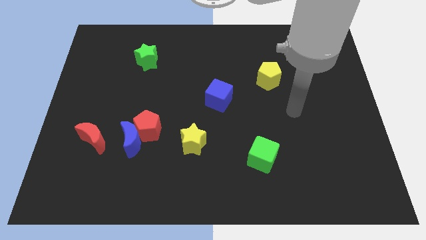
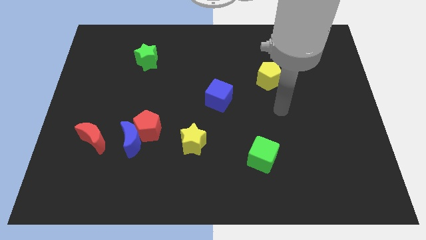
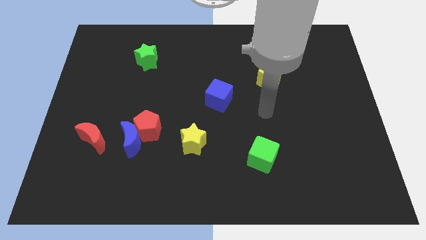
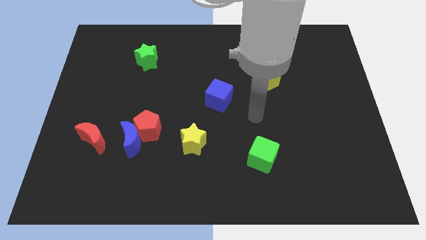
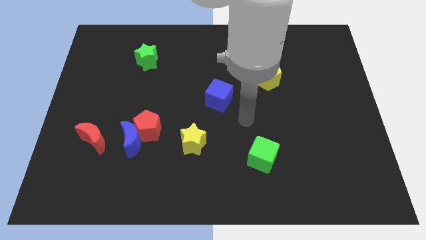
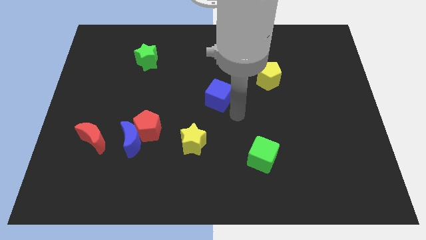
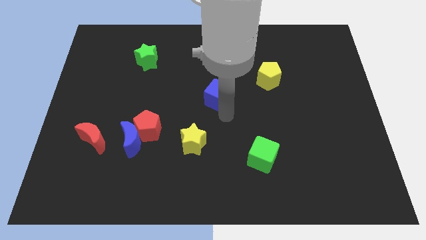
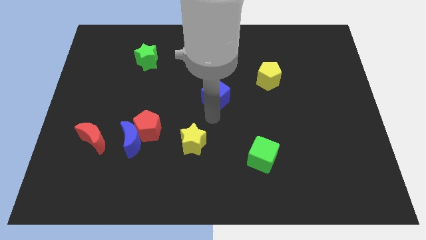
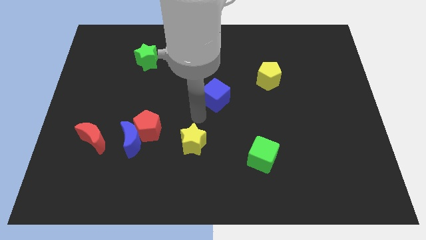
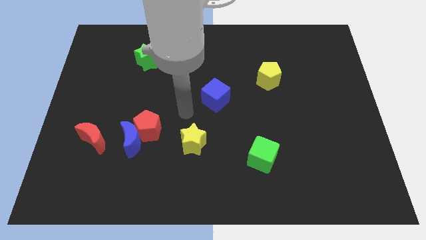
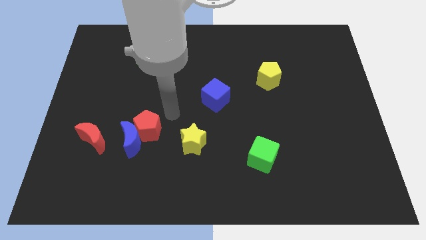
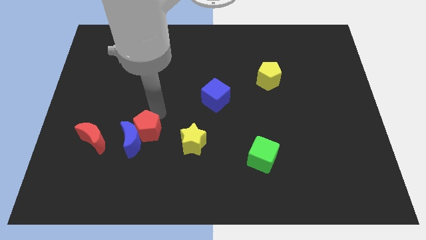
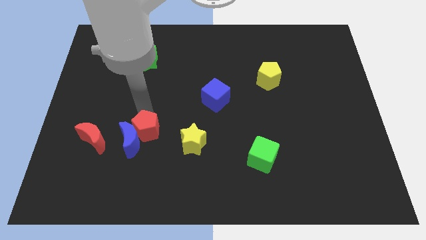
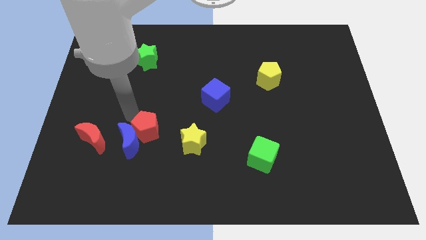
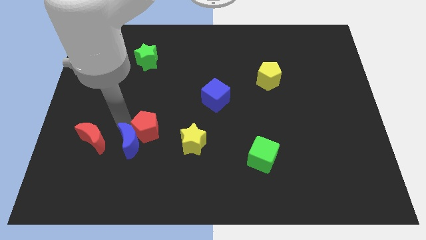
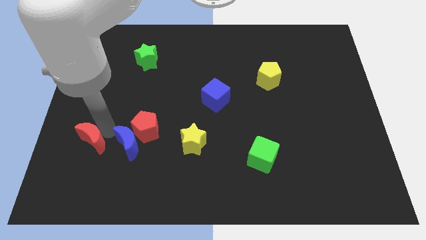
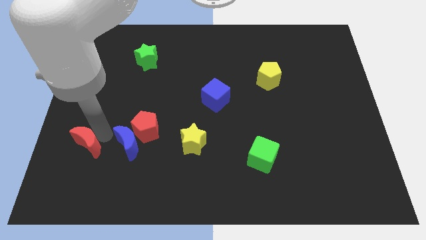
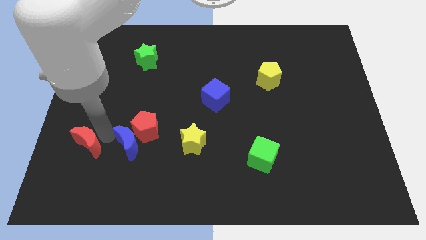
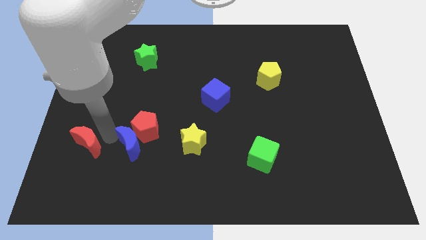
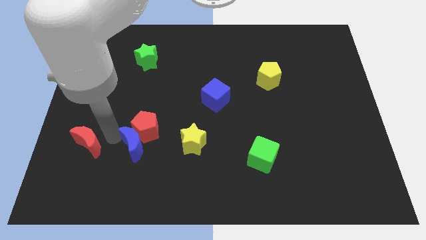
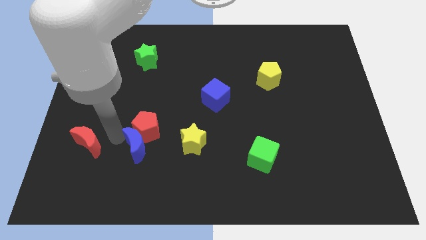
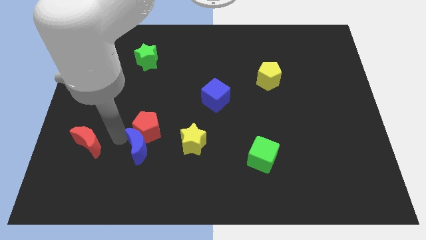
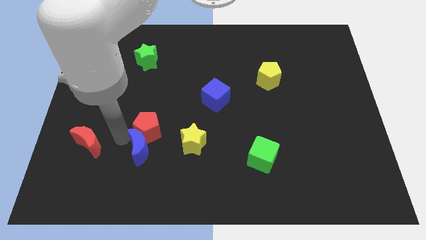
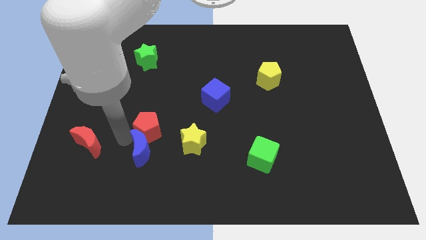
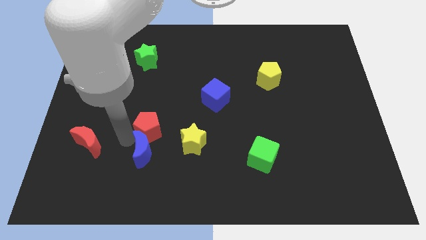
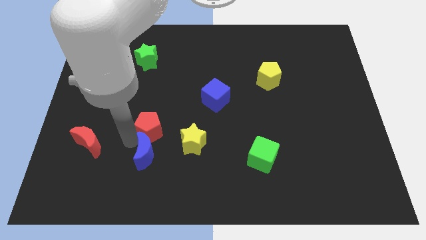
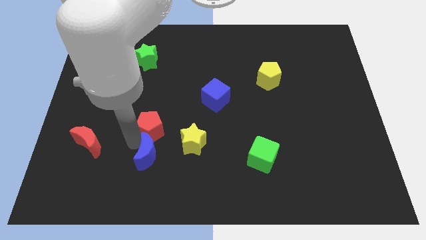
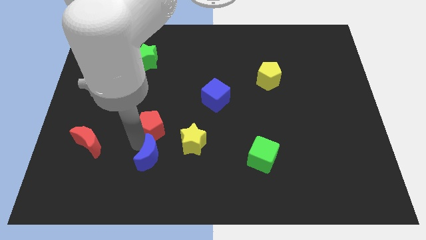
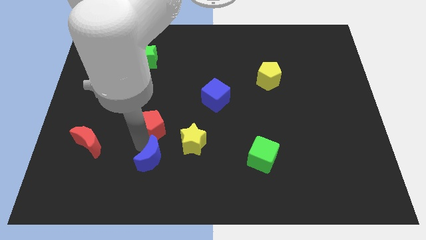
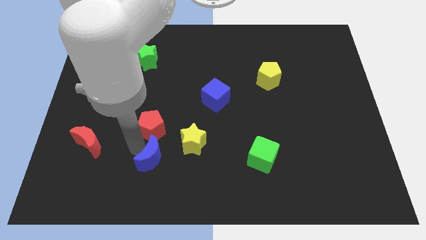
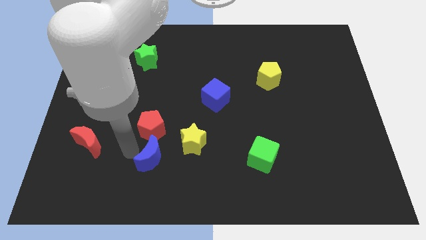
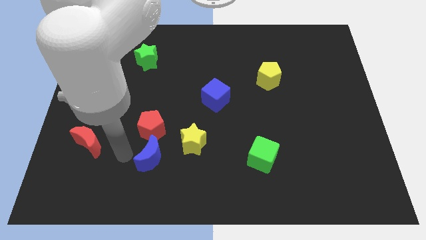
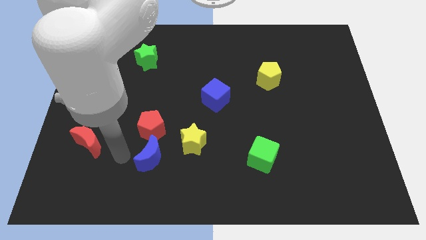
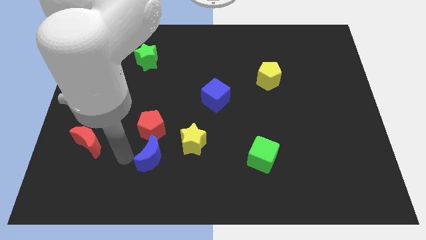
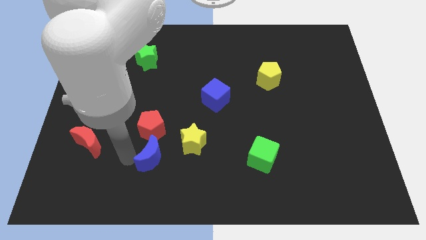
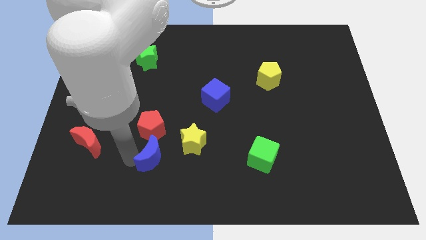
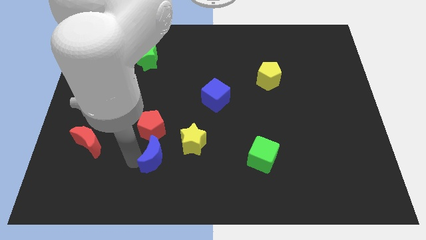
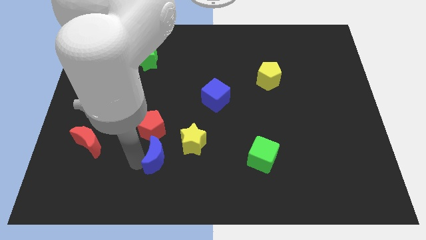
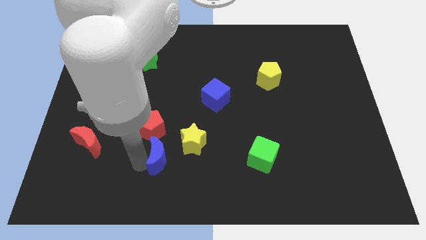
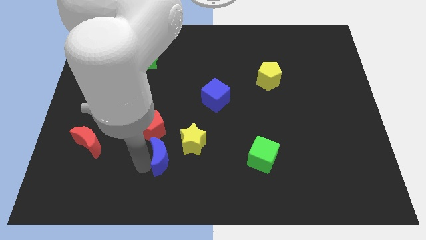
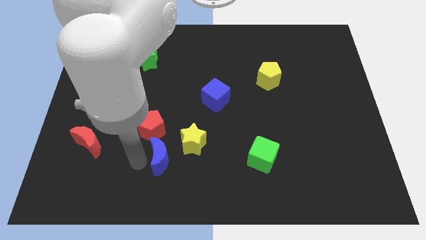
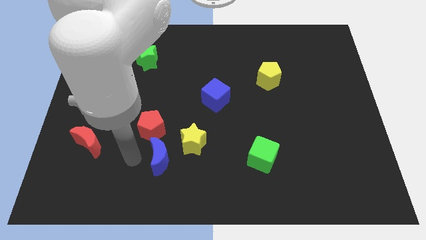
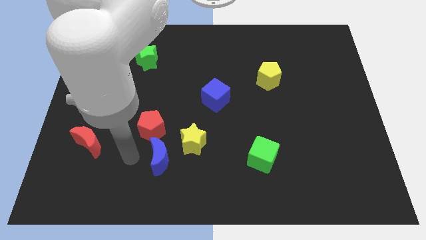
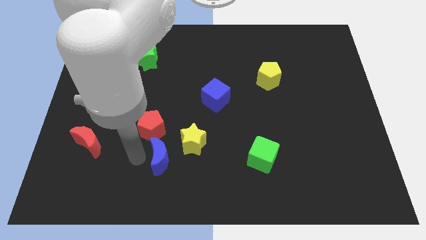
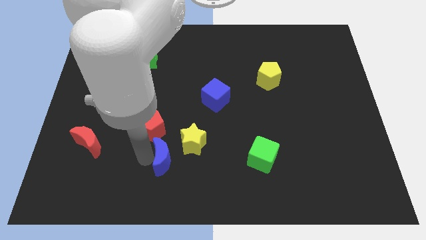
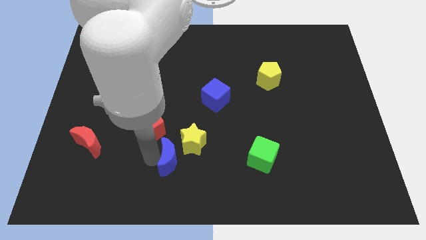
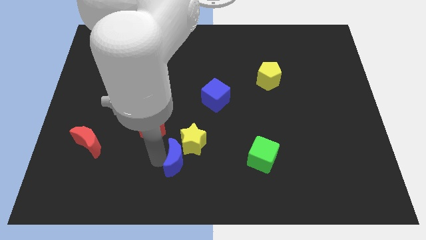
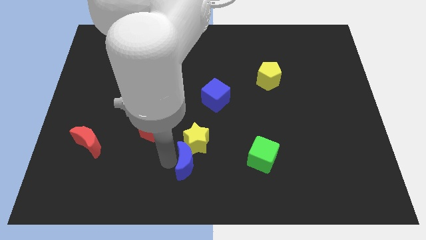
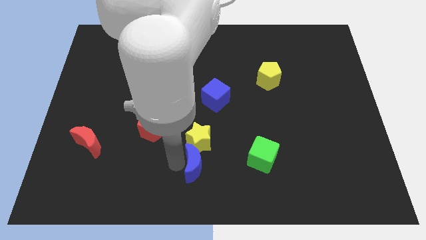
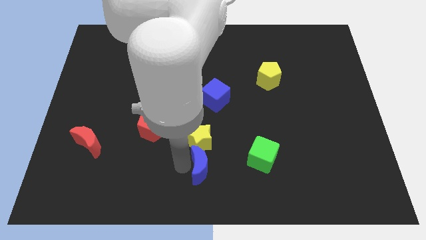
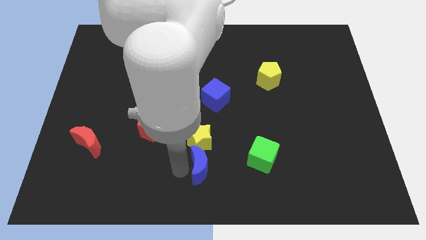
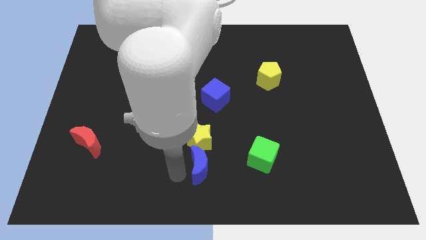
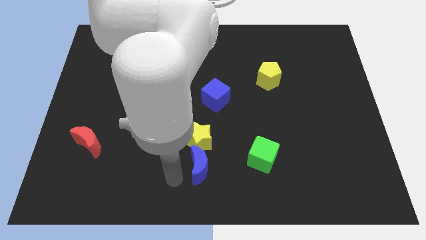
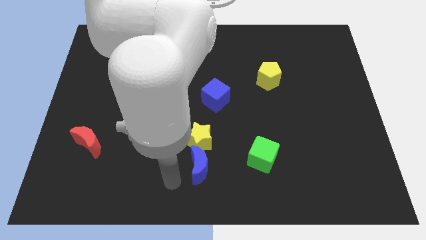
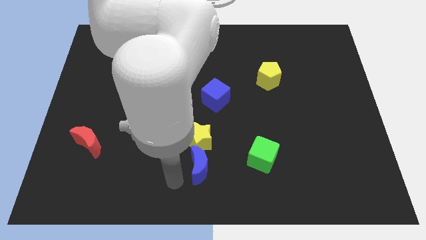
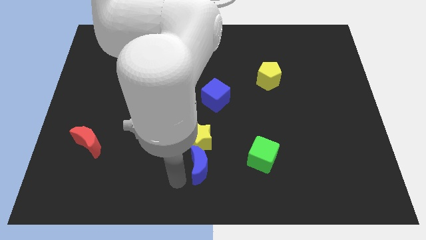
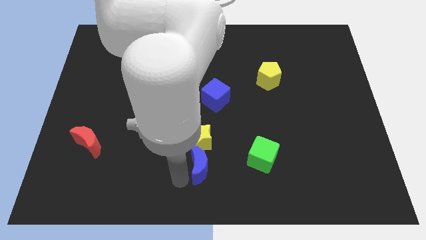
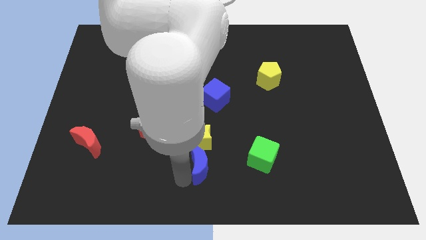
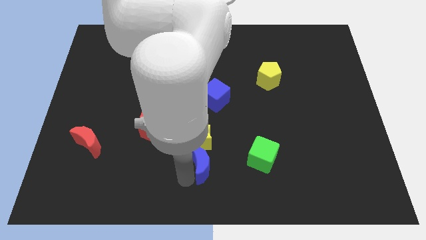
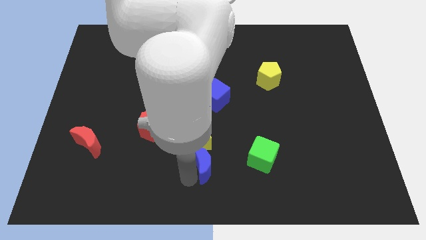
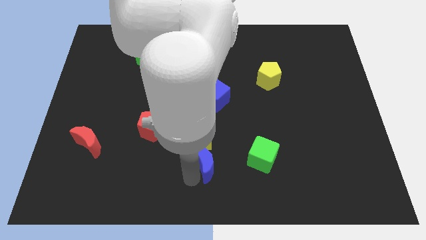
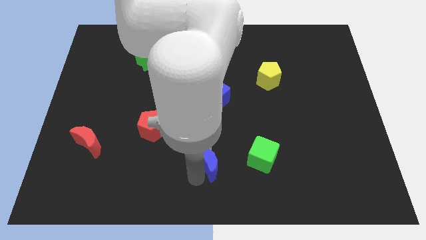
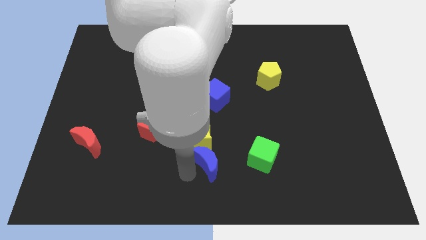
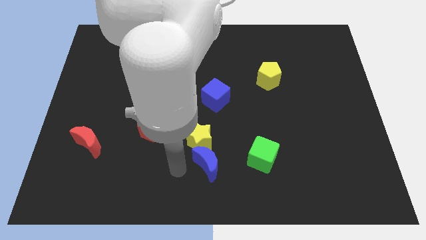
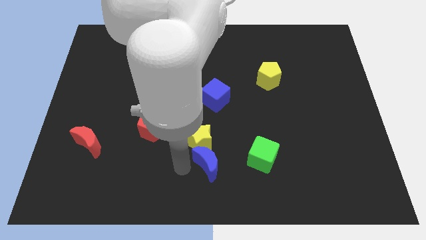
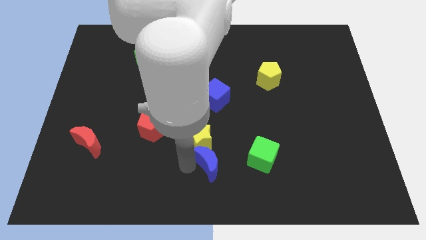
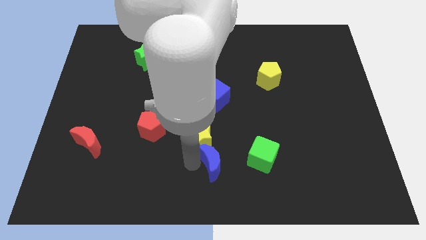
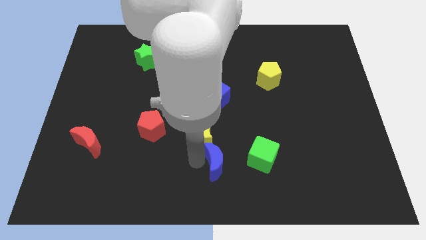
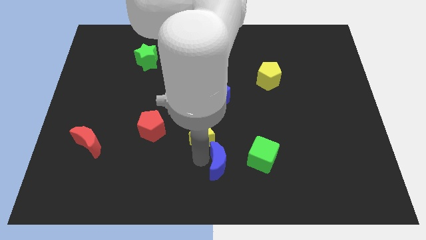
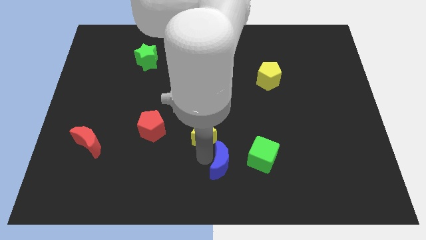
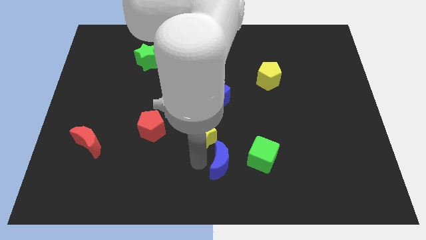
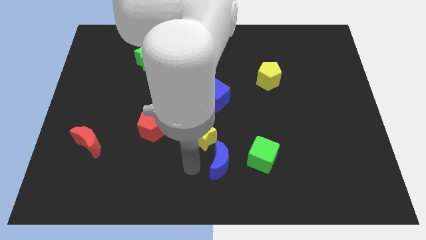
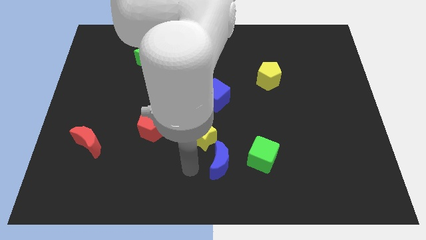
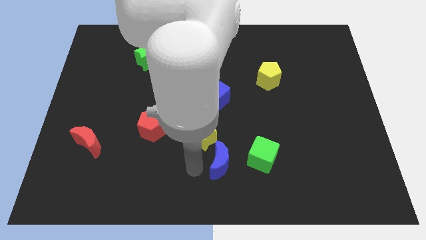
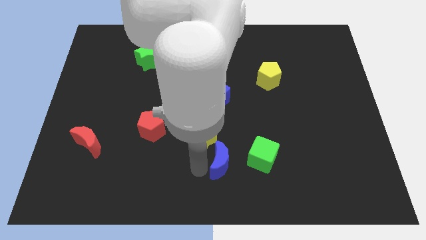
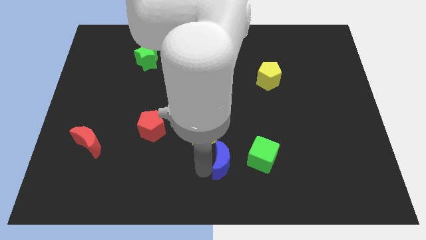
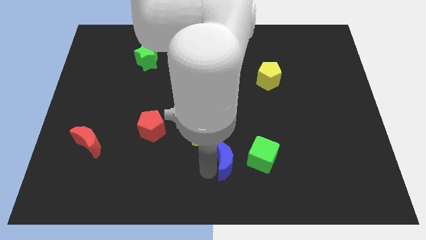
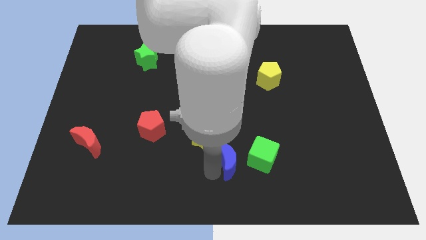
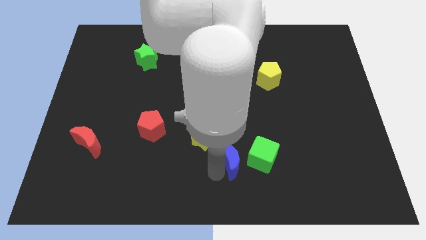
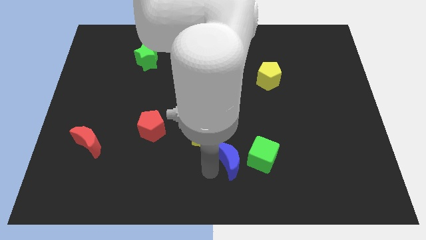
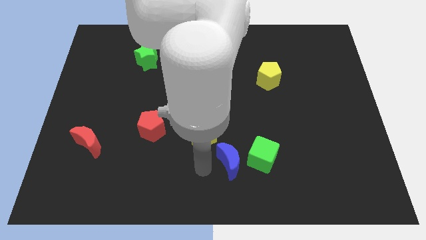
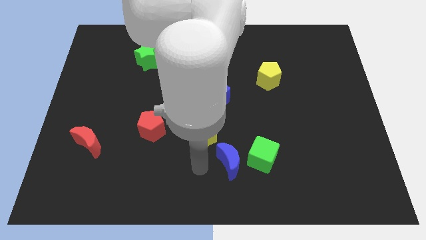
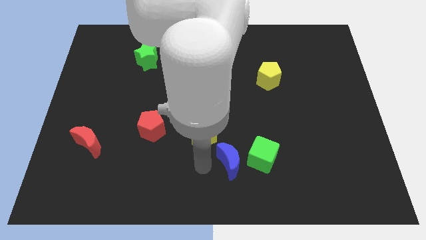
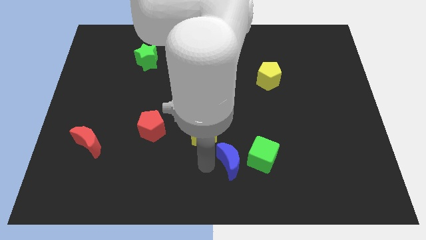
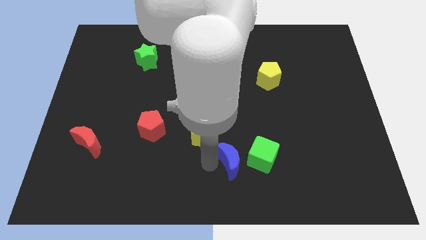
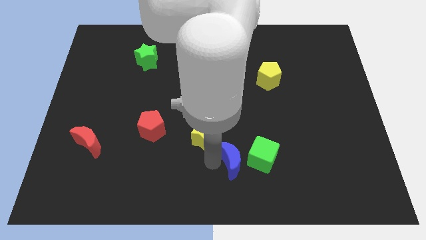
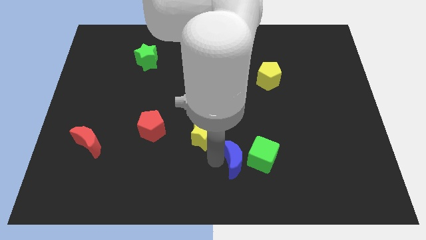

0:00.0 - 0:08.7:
push the blue moon next to the green cube
